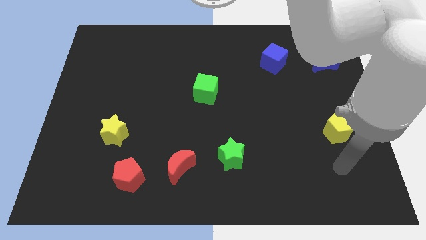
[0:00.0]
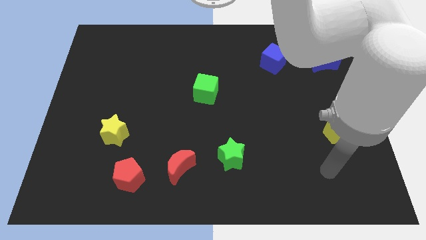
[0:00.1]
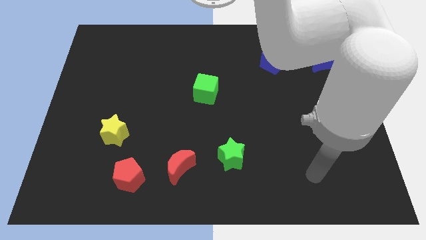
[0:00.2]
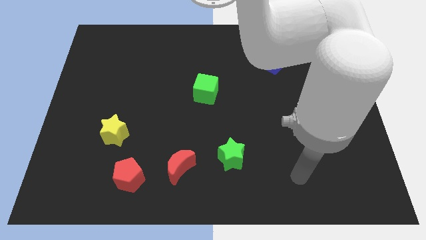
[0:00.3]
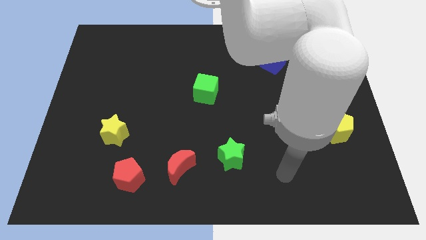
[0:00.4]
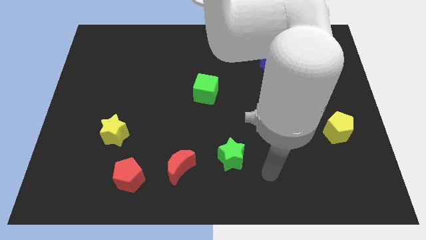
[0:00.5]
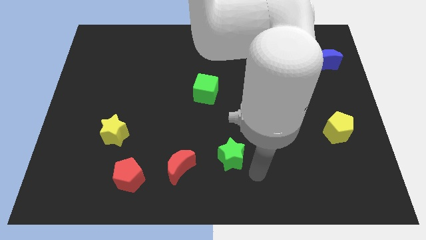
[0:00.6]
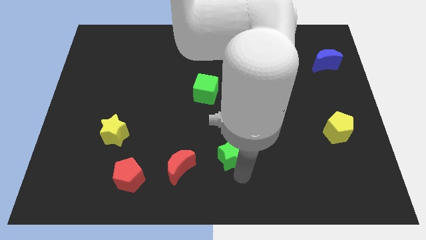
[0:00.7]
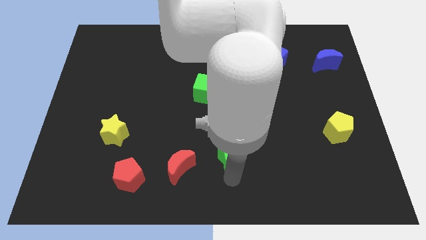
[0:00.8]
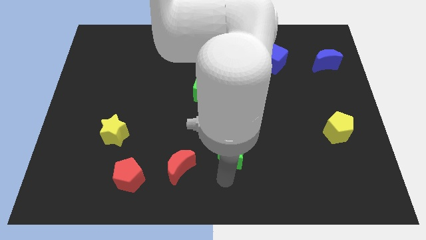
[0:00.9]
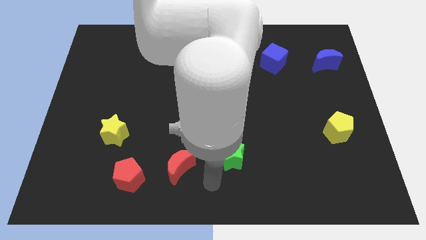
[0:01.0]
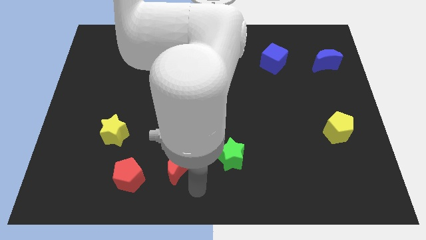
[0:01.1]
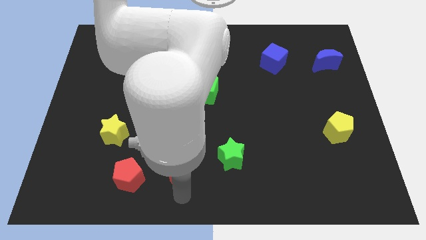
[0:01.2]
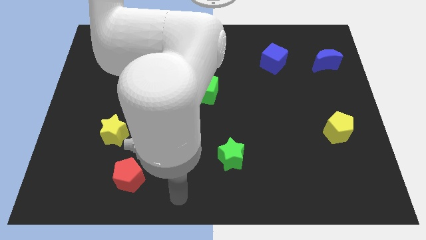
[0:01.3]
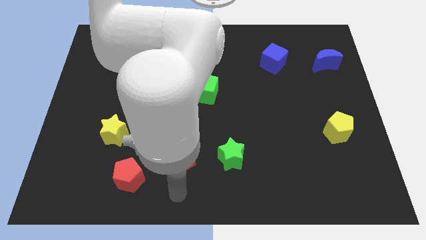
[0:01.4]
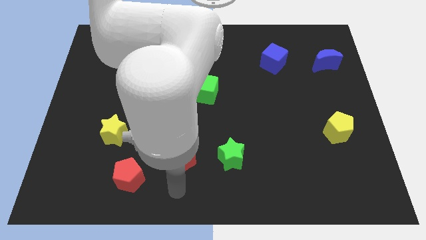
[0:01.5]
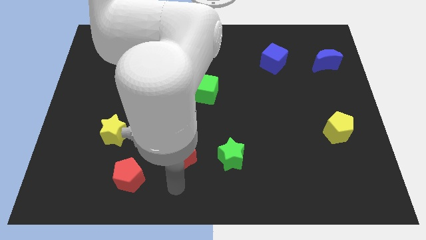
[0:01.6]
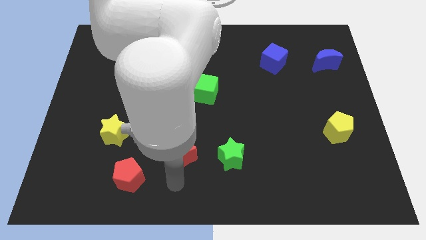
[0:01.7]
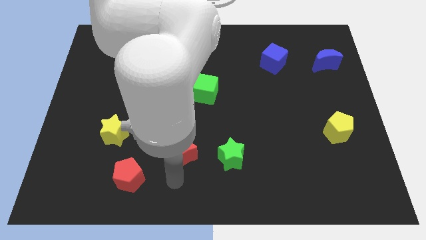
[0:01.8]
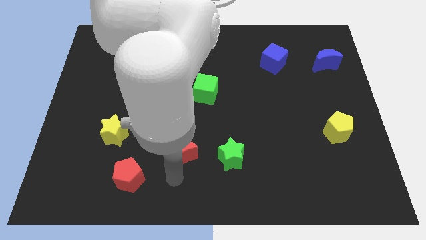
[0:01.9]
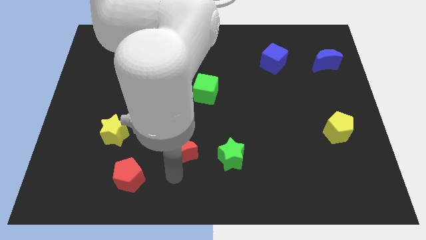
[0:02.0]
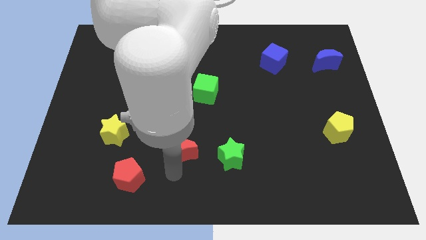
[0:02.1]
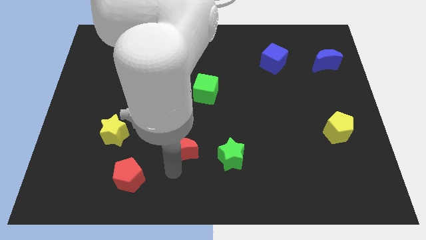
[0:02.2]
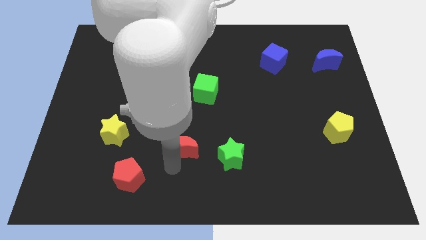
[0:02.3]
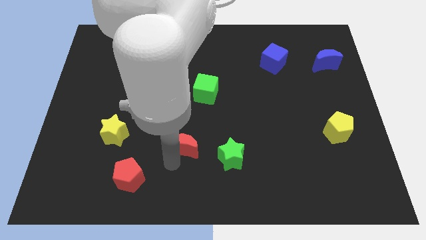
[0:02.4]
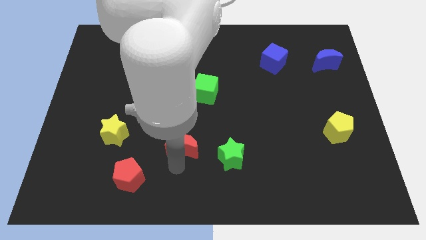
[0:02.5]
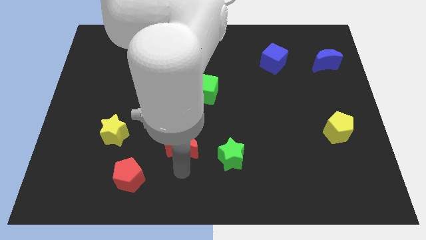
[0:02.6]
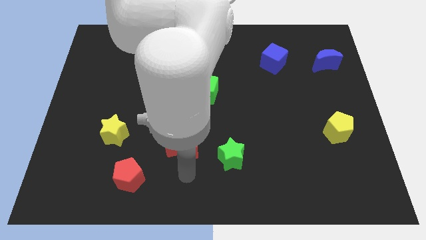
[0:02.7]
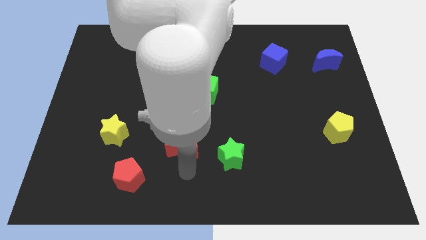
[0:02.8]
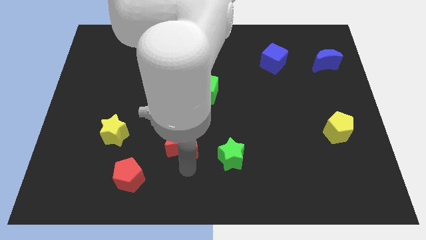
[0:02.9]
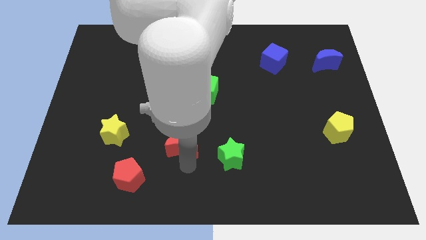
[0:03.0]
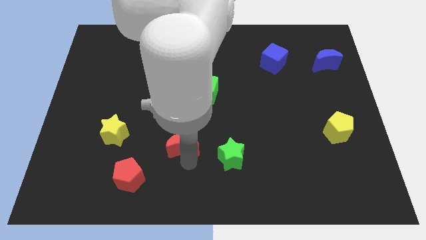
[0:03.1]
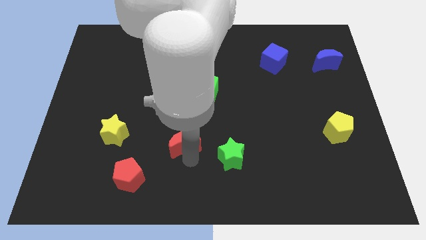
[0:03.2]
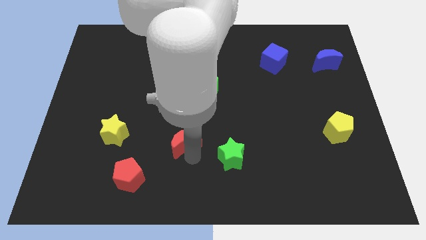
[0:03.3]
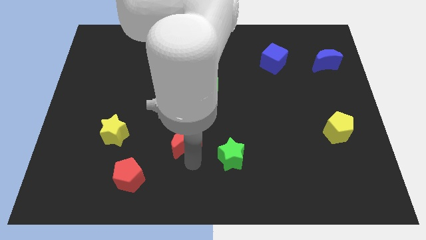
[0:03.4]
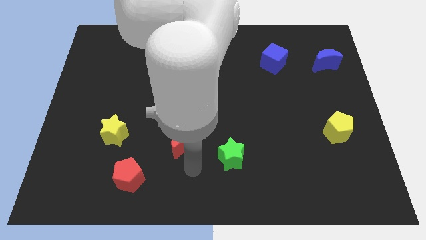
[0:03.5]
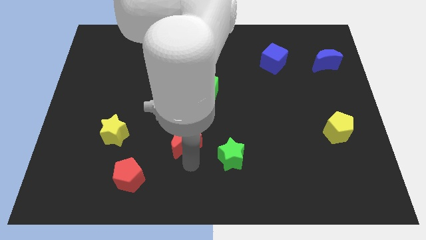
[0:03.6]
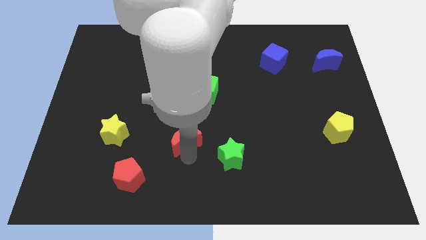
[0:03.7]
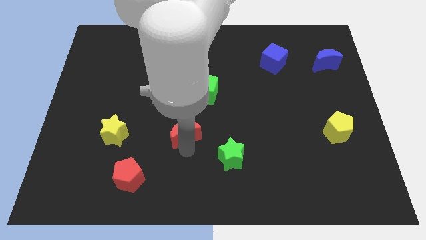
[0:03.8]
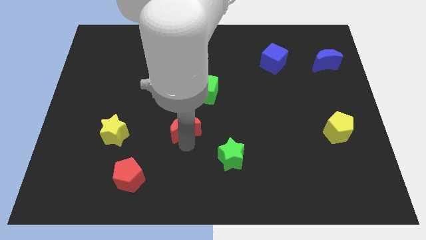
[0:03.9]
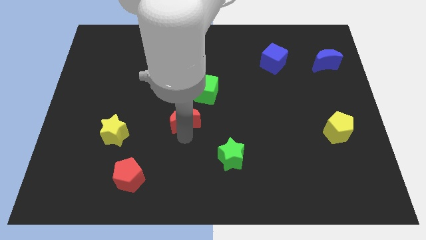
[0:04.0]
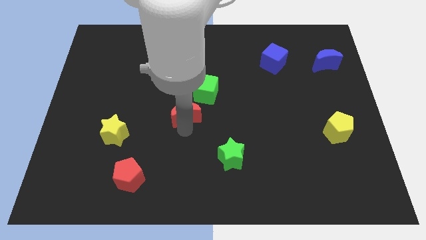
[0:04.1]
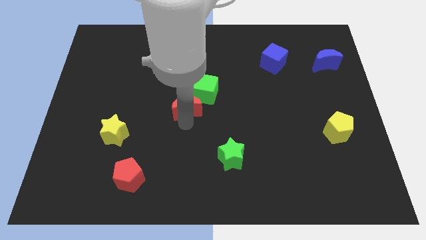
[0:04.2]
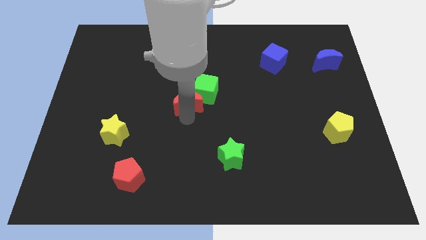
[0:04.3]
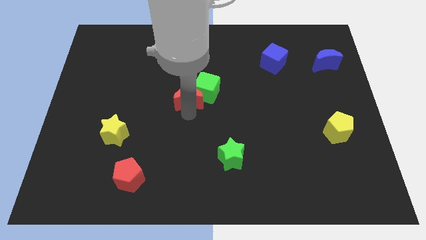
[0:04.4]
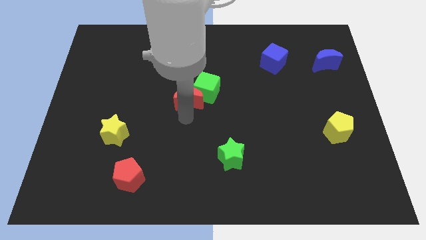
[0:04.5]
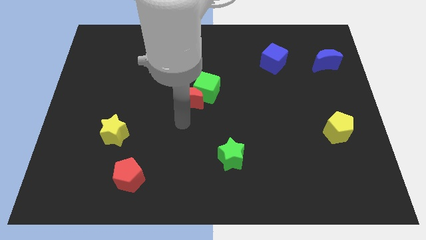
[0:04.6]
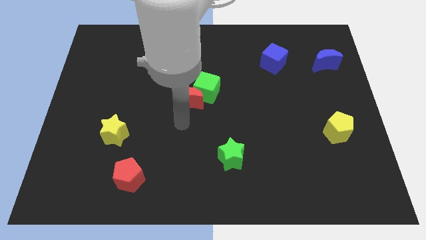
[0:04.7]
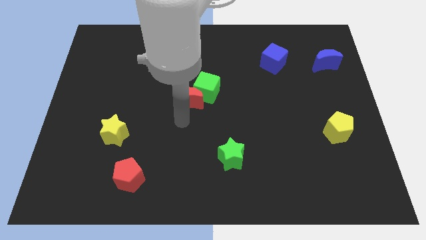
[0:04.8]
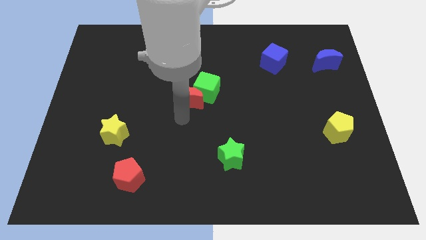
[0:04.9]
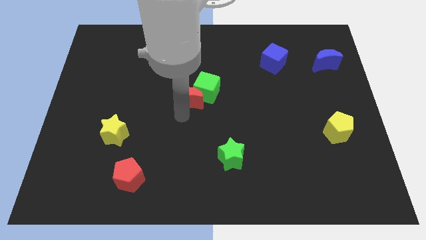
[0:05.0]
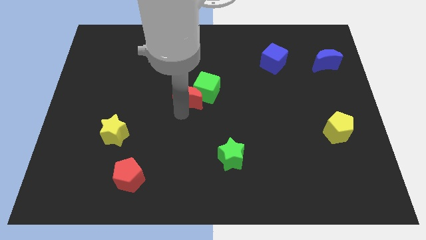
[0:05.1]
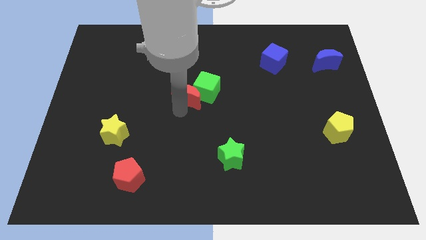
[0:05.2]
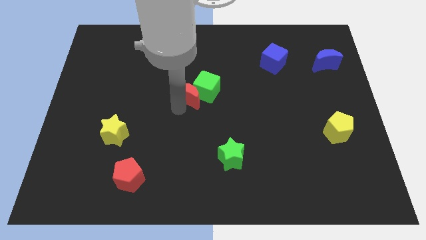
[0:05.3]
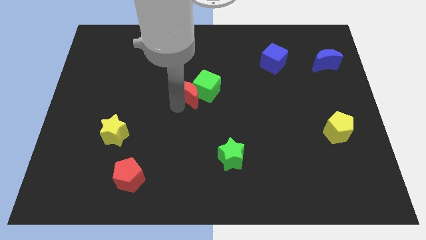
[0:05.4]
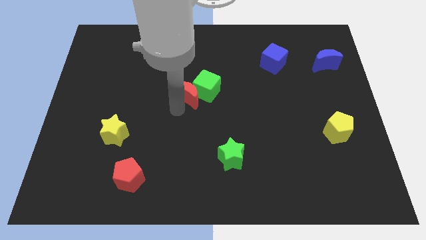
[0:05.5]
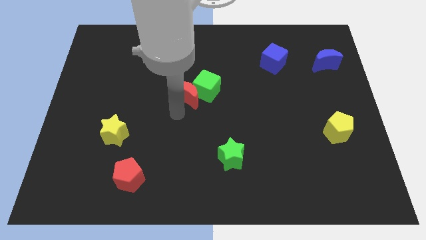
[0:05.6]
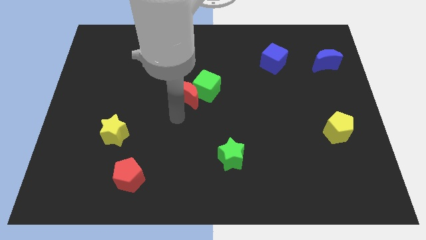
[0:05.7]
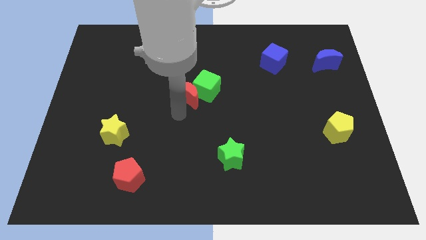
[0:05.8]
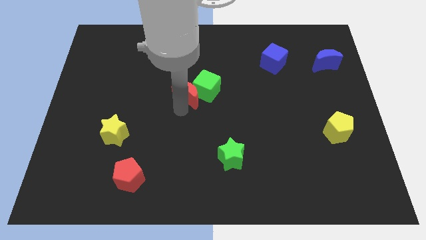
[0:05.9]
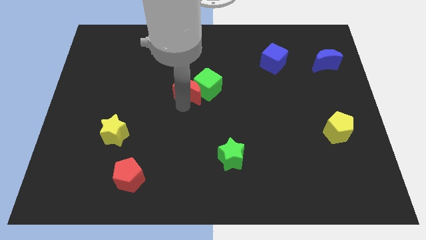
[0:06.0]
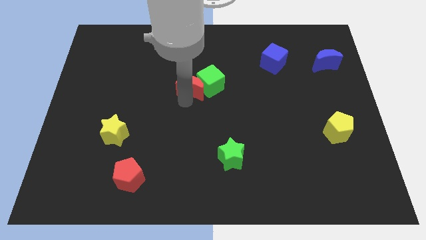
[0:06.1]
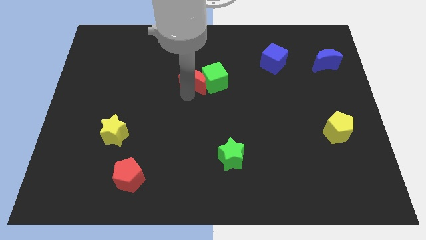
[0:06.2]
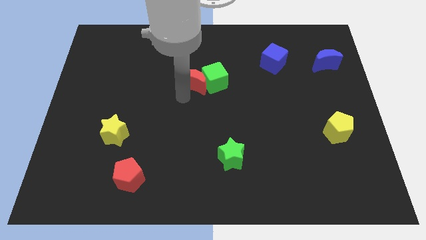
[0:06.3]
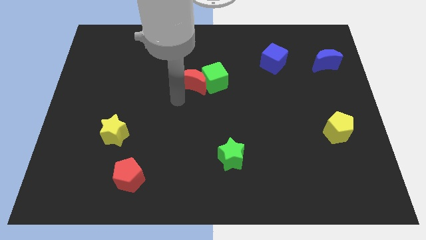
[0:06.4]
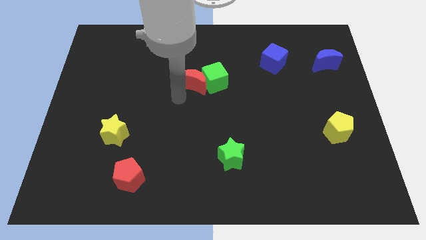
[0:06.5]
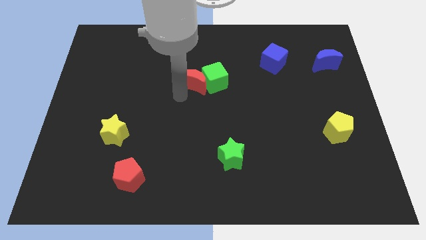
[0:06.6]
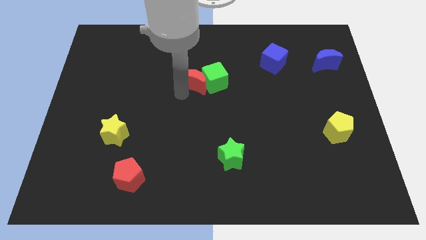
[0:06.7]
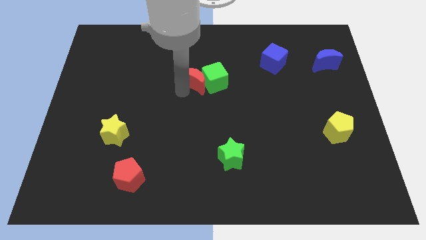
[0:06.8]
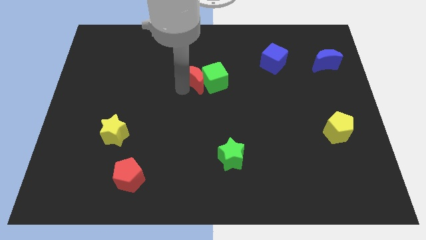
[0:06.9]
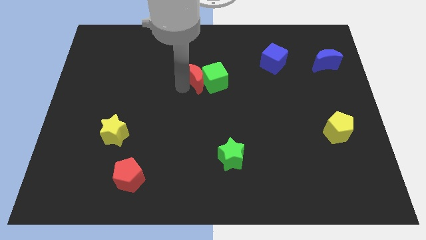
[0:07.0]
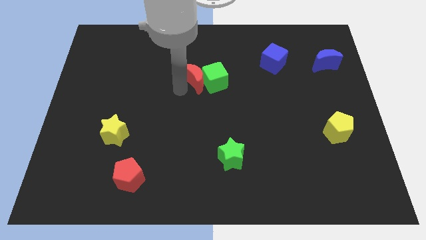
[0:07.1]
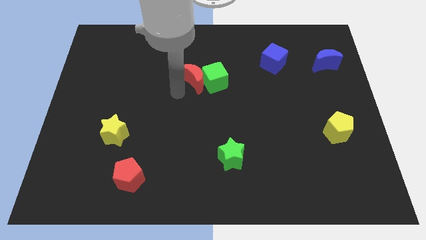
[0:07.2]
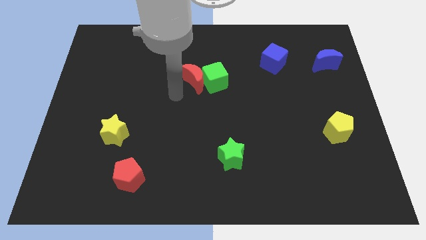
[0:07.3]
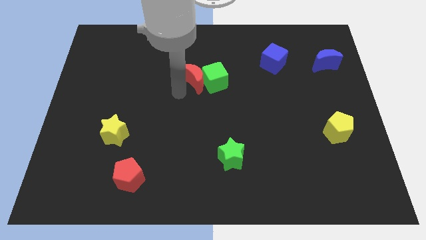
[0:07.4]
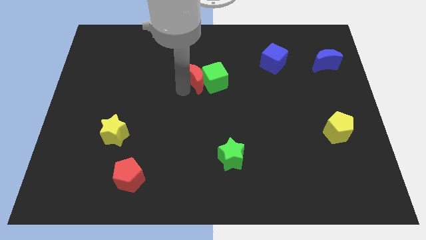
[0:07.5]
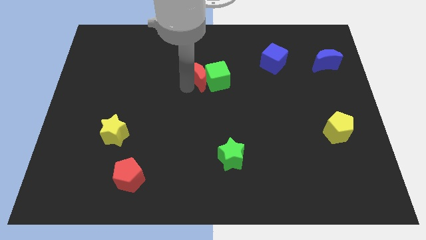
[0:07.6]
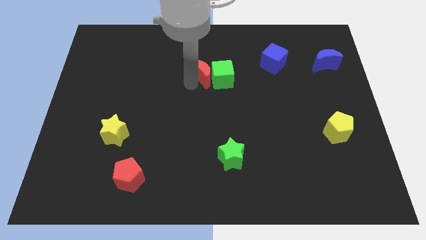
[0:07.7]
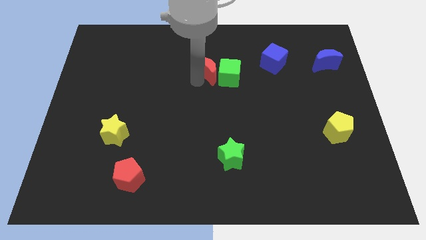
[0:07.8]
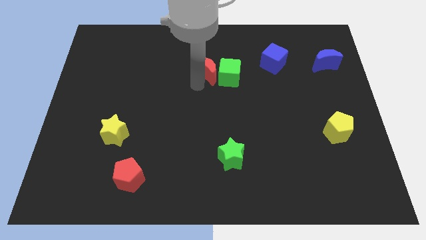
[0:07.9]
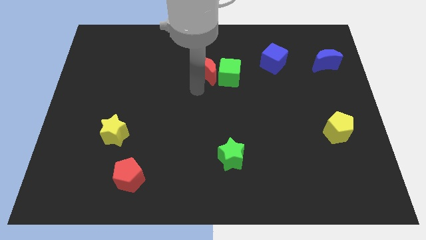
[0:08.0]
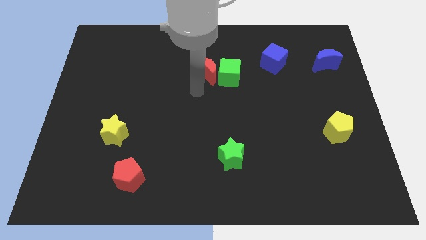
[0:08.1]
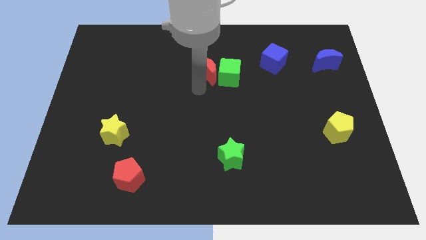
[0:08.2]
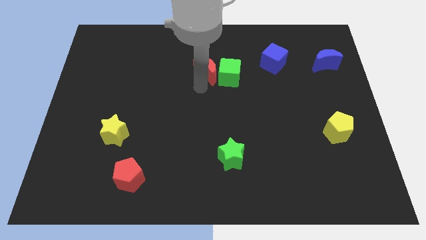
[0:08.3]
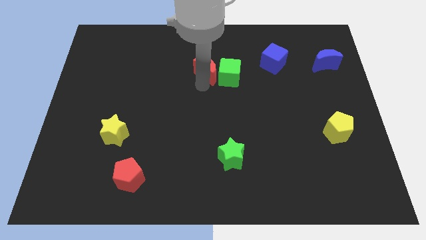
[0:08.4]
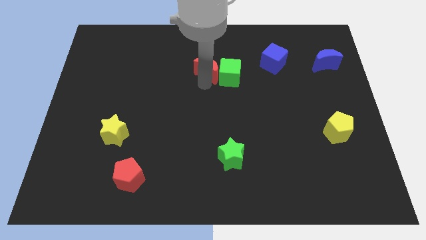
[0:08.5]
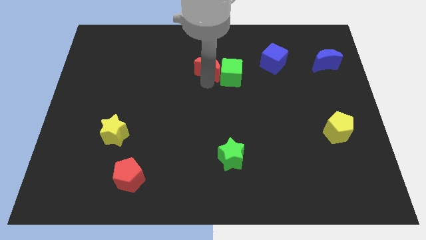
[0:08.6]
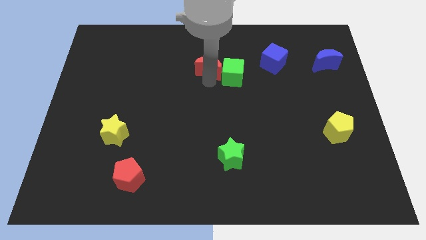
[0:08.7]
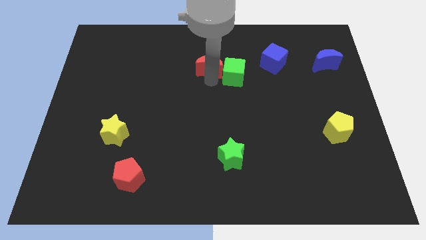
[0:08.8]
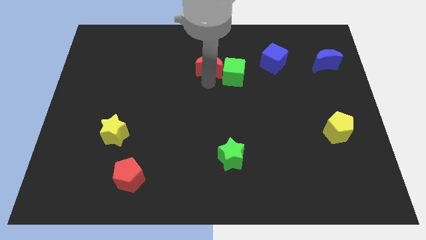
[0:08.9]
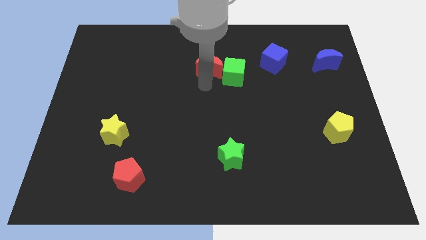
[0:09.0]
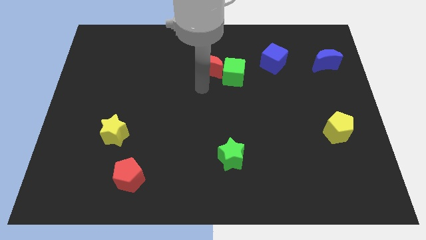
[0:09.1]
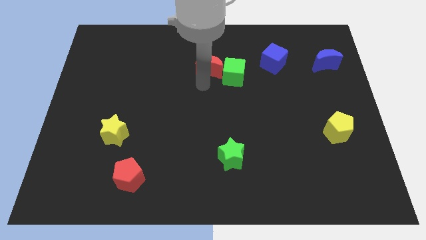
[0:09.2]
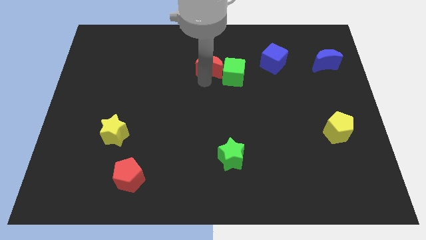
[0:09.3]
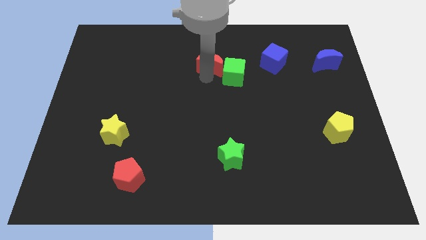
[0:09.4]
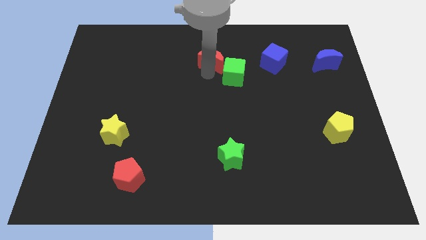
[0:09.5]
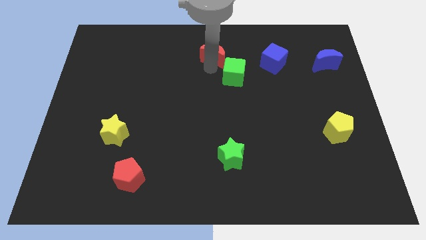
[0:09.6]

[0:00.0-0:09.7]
slide the red moon to the top
